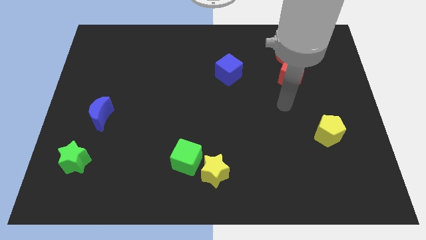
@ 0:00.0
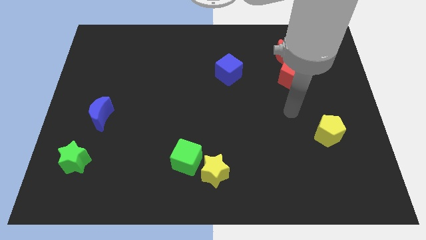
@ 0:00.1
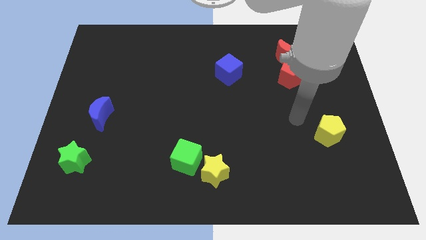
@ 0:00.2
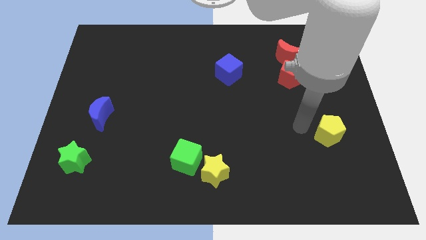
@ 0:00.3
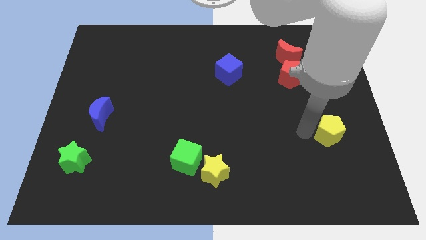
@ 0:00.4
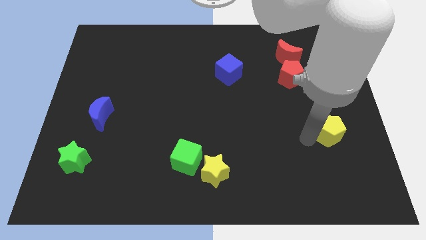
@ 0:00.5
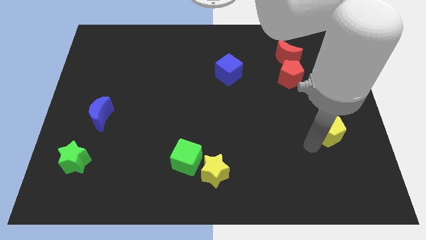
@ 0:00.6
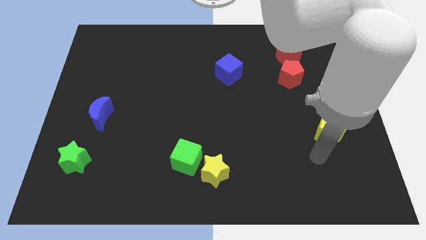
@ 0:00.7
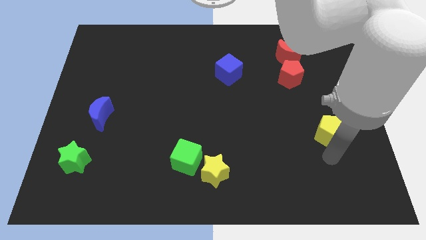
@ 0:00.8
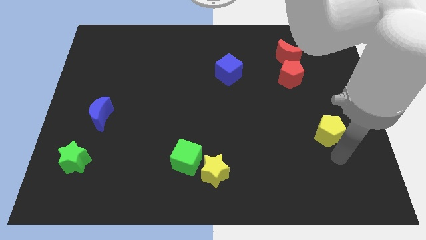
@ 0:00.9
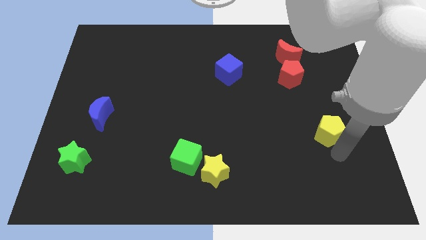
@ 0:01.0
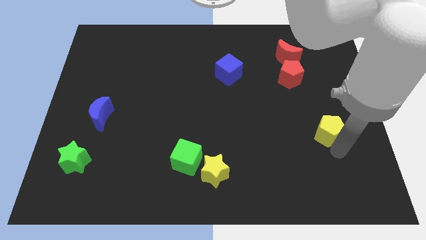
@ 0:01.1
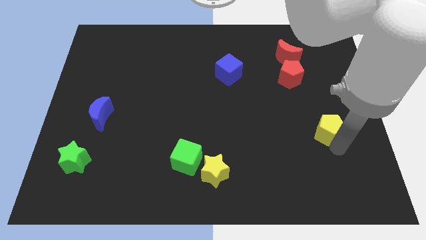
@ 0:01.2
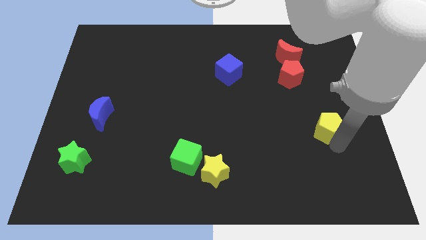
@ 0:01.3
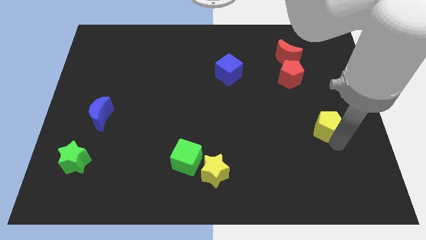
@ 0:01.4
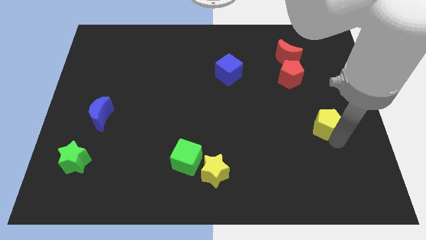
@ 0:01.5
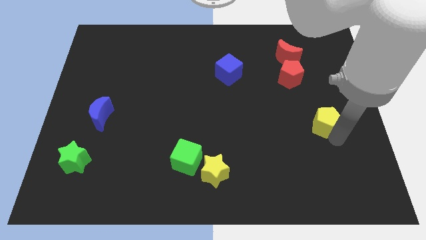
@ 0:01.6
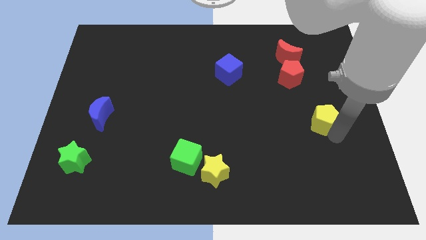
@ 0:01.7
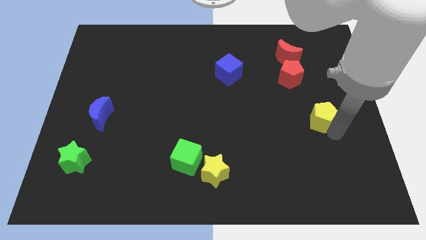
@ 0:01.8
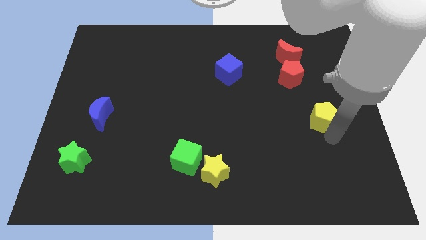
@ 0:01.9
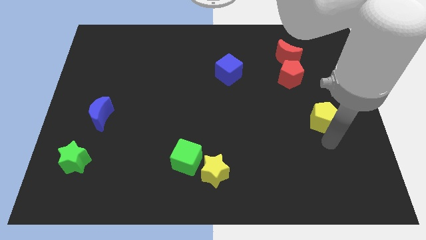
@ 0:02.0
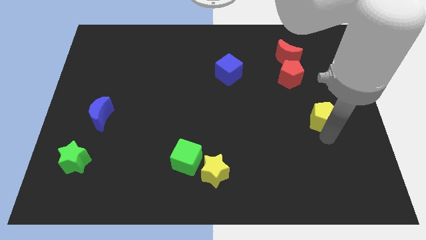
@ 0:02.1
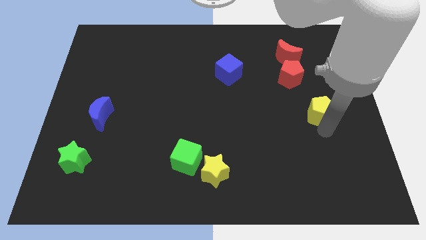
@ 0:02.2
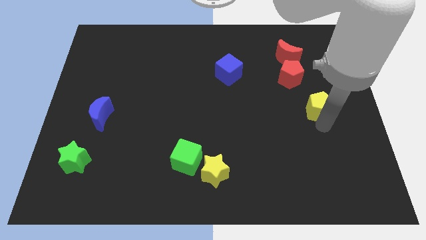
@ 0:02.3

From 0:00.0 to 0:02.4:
push the yellow pentagon somewhat up

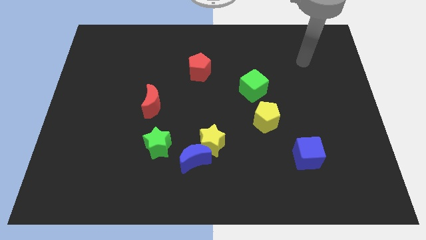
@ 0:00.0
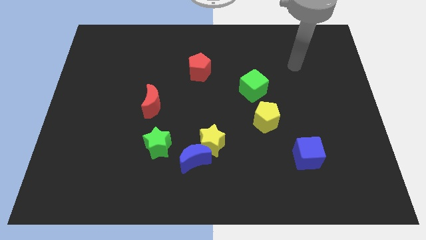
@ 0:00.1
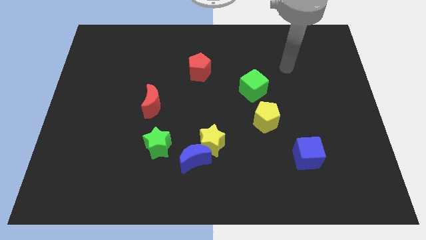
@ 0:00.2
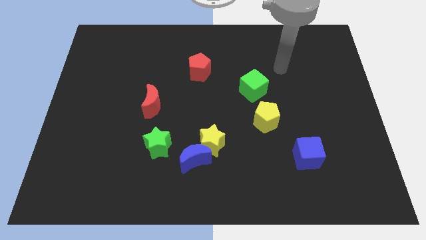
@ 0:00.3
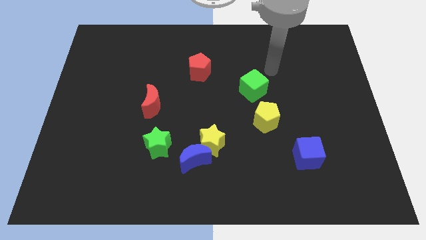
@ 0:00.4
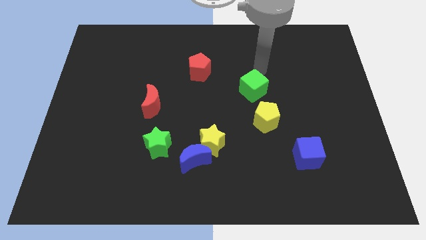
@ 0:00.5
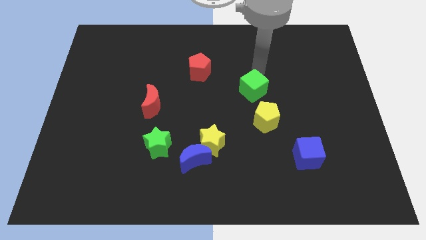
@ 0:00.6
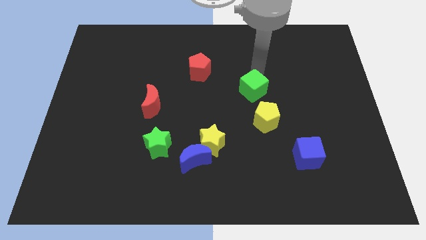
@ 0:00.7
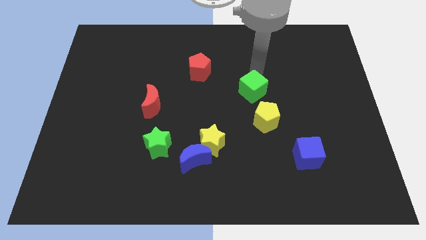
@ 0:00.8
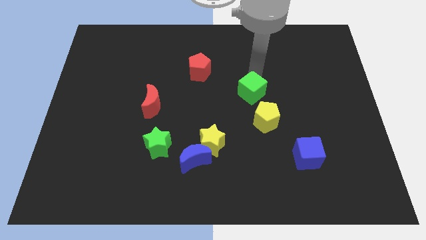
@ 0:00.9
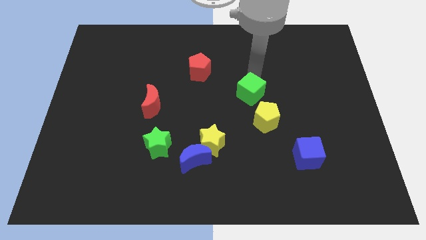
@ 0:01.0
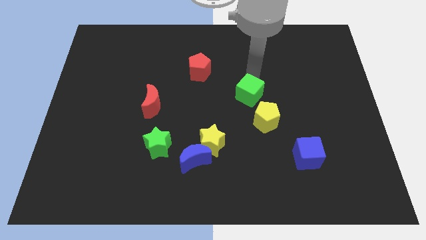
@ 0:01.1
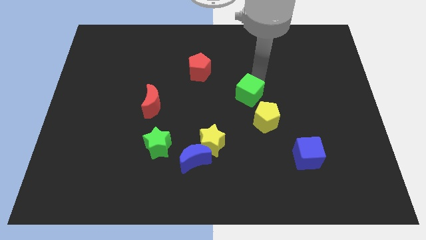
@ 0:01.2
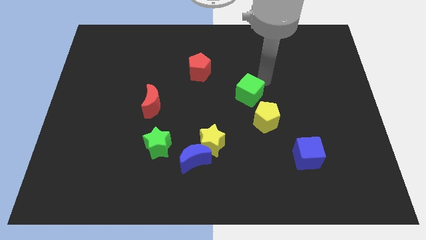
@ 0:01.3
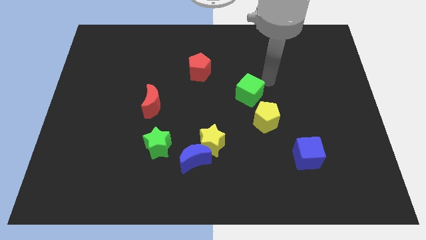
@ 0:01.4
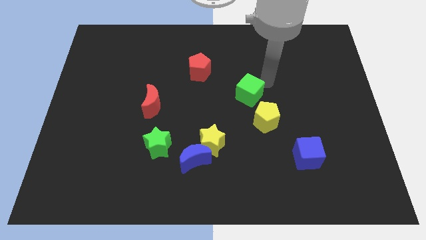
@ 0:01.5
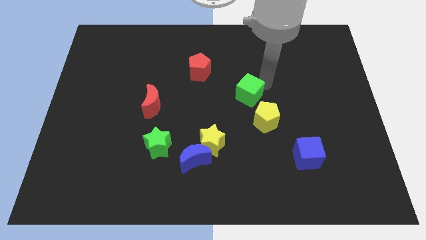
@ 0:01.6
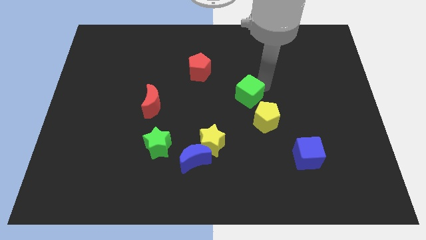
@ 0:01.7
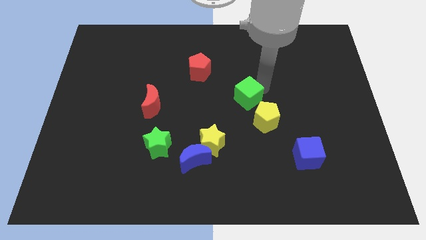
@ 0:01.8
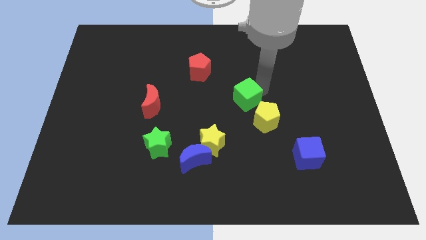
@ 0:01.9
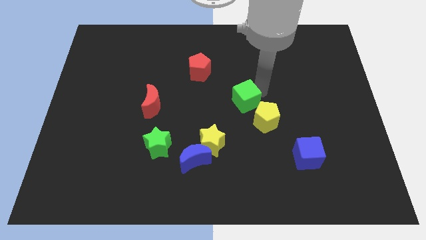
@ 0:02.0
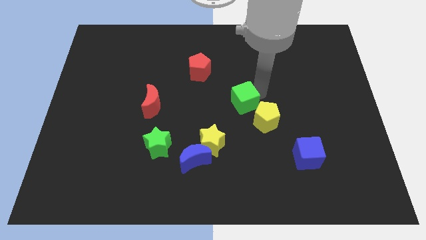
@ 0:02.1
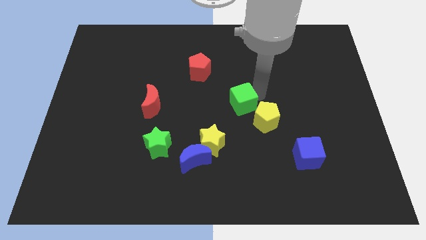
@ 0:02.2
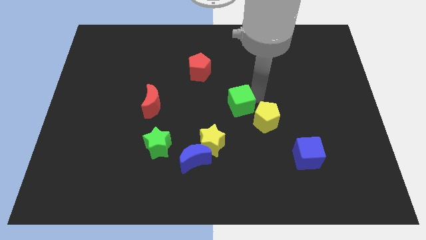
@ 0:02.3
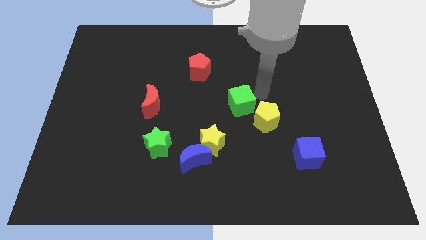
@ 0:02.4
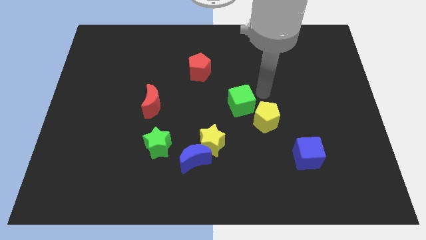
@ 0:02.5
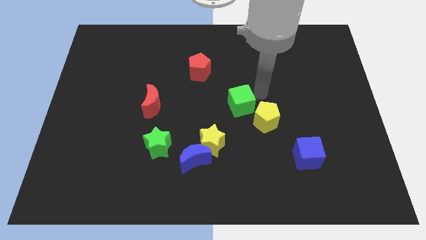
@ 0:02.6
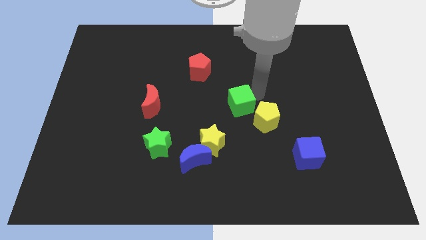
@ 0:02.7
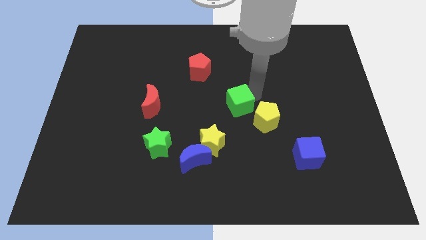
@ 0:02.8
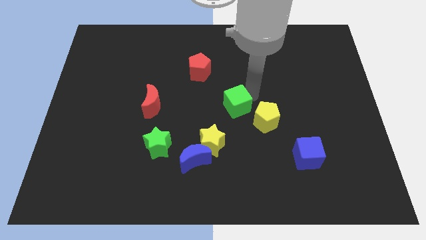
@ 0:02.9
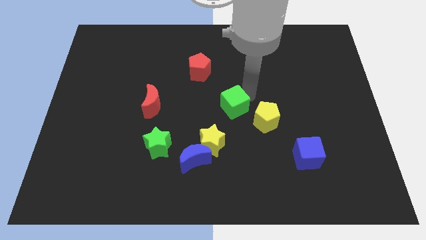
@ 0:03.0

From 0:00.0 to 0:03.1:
slightly move the green cube down and then to the left

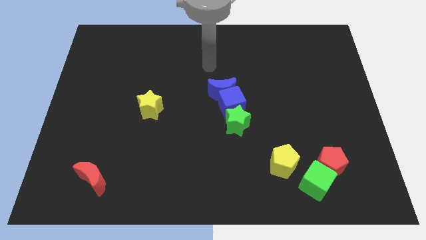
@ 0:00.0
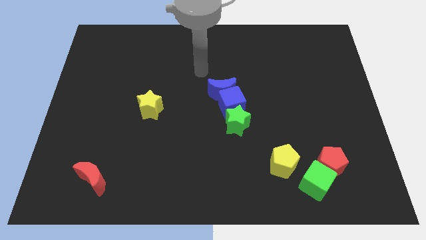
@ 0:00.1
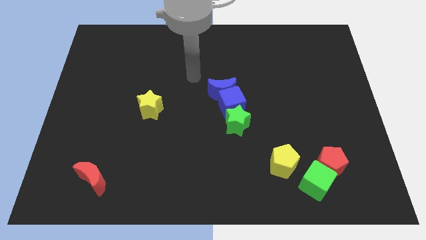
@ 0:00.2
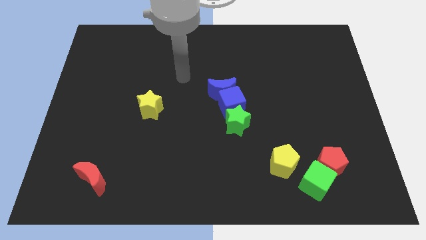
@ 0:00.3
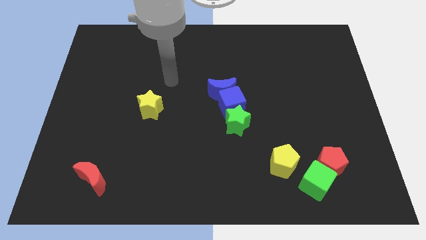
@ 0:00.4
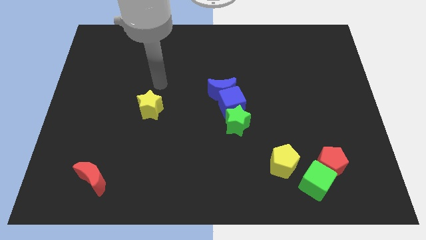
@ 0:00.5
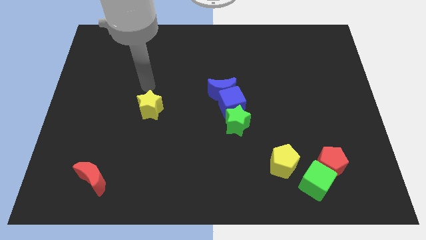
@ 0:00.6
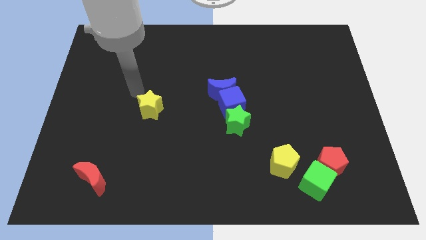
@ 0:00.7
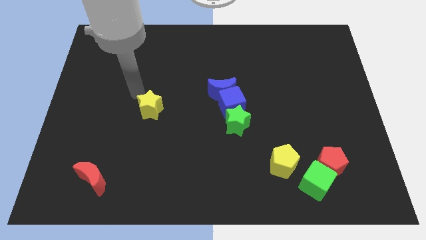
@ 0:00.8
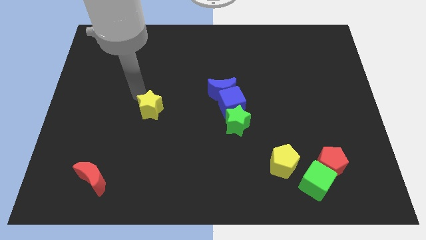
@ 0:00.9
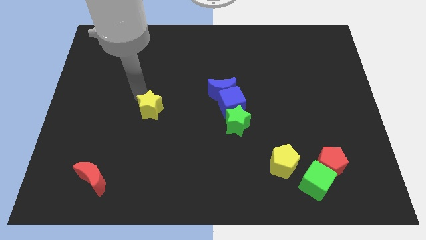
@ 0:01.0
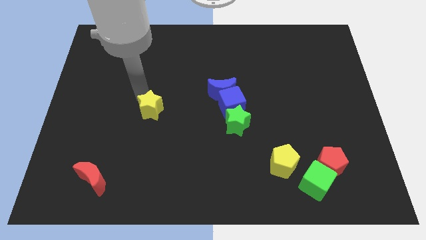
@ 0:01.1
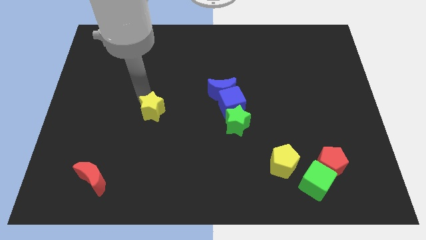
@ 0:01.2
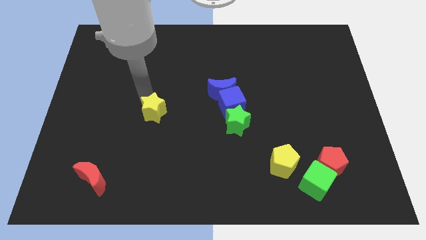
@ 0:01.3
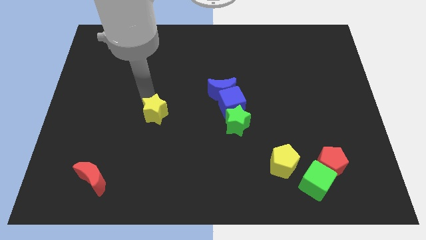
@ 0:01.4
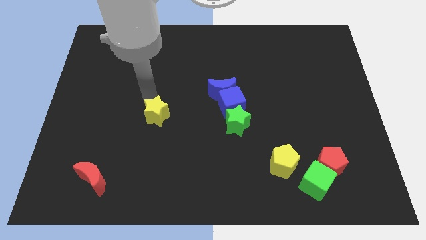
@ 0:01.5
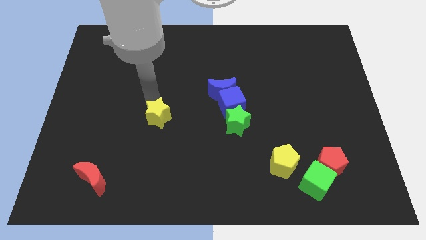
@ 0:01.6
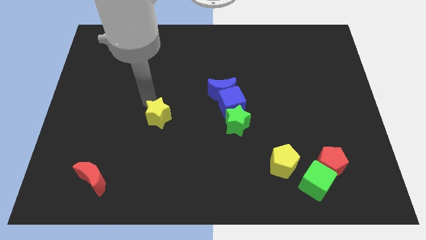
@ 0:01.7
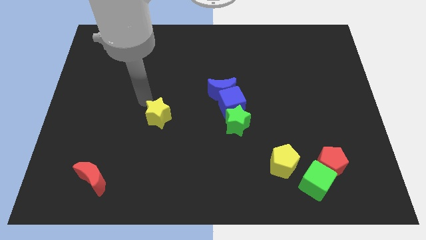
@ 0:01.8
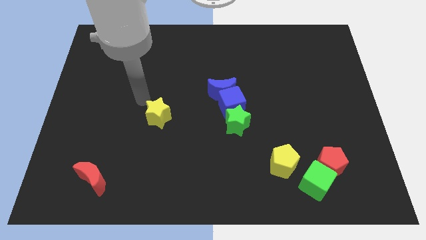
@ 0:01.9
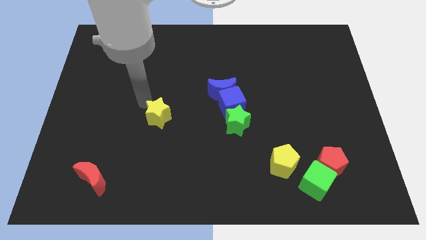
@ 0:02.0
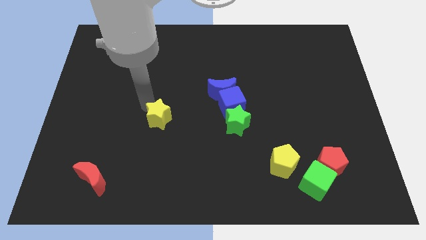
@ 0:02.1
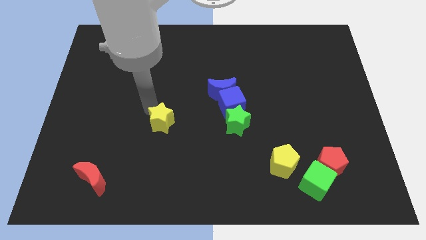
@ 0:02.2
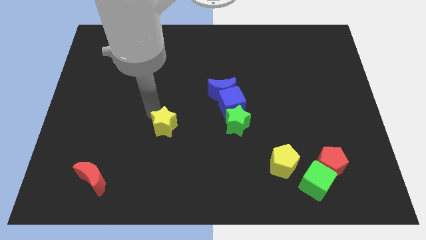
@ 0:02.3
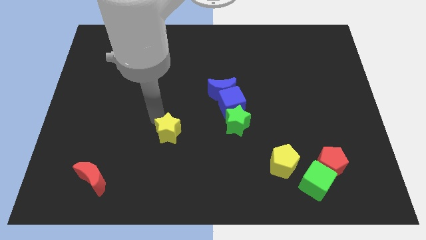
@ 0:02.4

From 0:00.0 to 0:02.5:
slide the yellow star downwards and right diagonally a bit

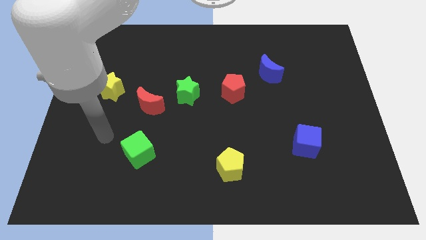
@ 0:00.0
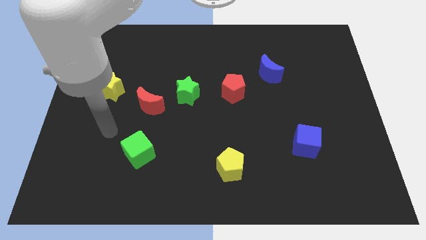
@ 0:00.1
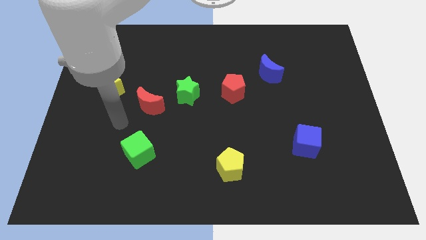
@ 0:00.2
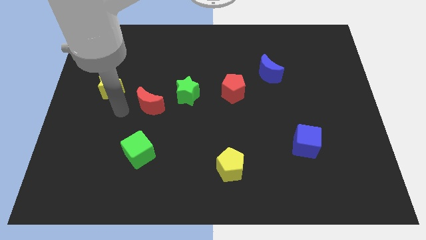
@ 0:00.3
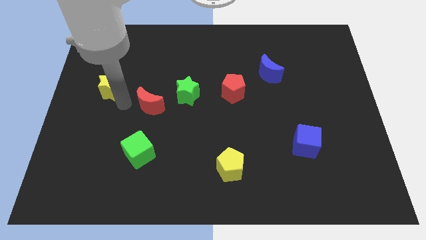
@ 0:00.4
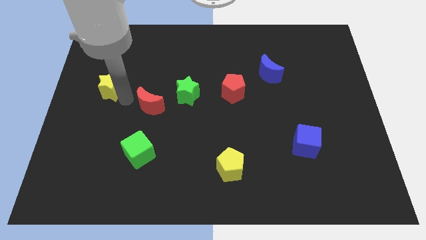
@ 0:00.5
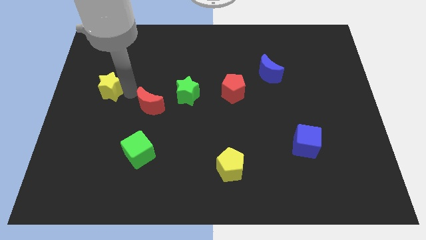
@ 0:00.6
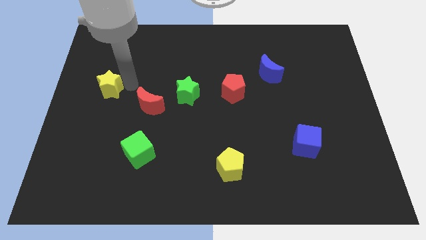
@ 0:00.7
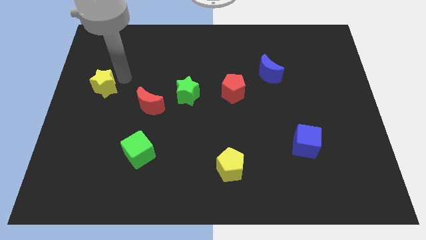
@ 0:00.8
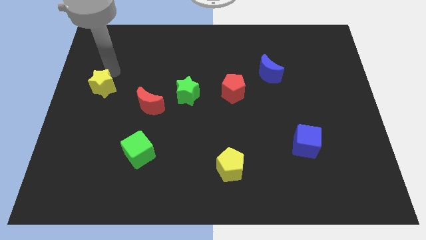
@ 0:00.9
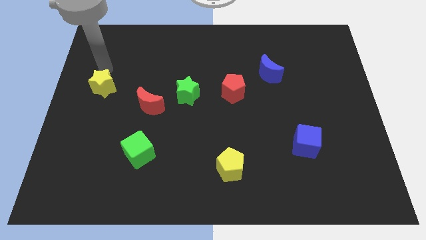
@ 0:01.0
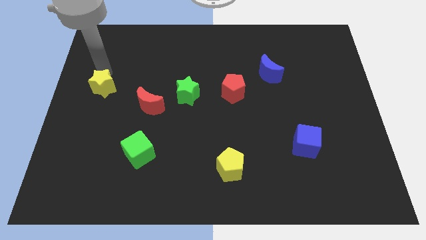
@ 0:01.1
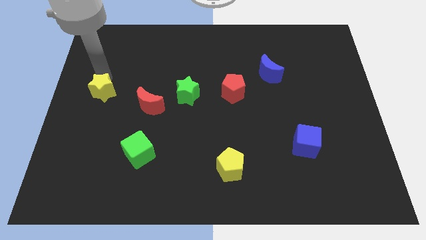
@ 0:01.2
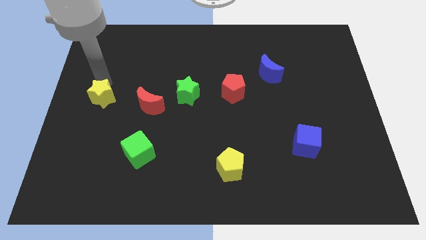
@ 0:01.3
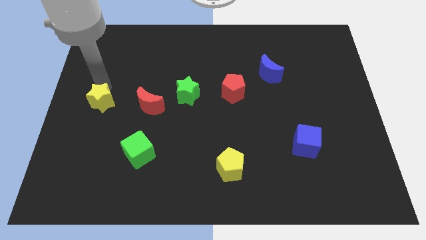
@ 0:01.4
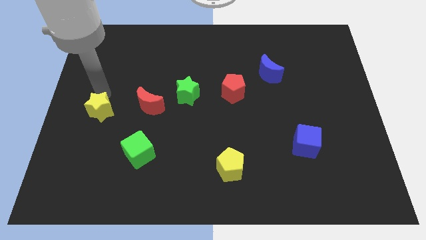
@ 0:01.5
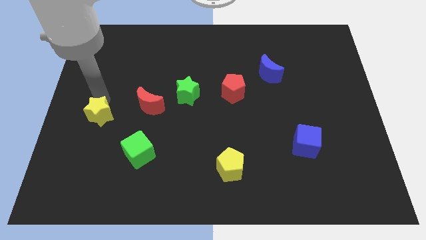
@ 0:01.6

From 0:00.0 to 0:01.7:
move the yellow star down somewhat
